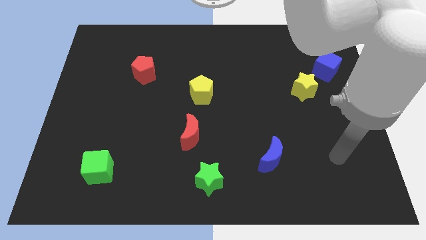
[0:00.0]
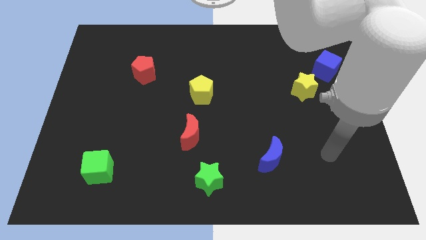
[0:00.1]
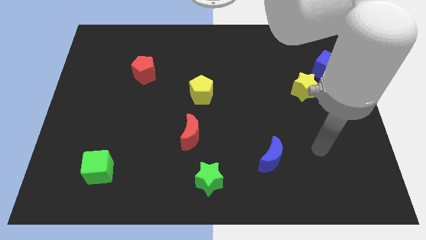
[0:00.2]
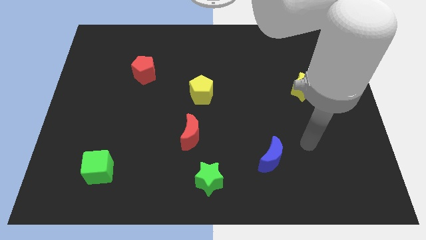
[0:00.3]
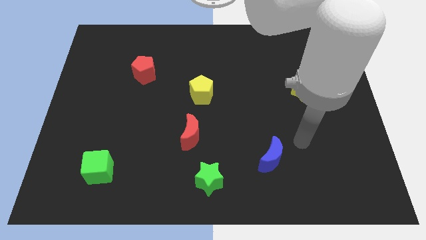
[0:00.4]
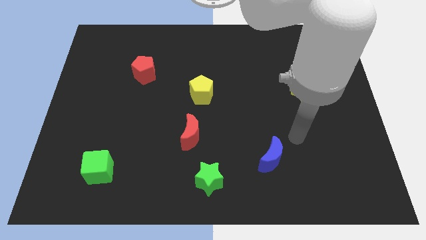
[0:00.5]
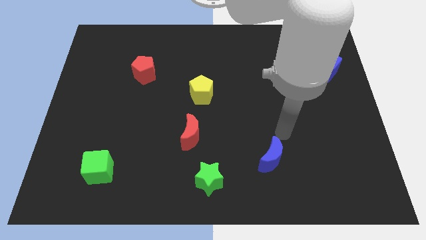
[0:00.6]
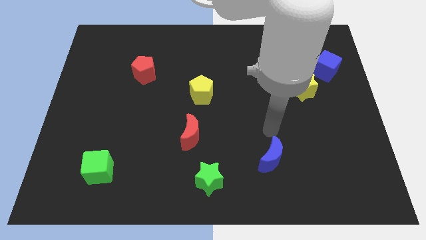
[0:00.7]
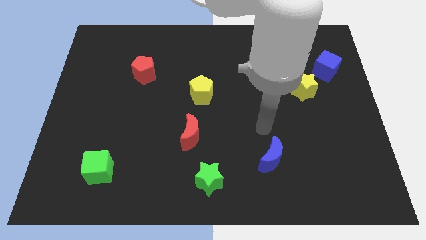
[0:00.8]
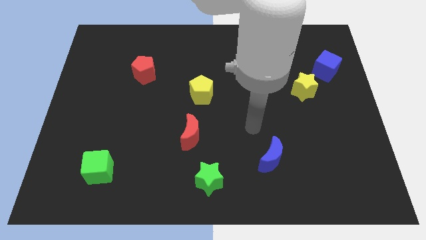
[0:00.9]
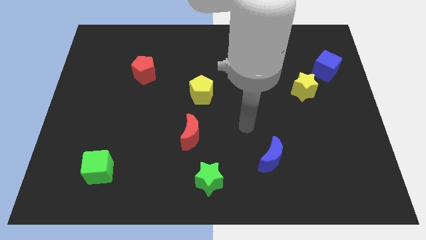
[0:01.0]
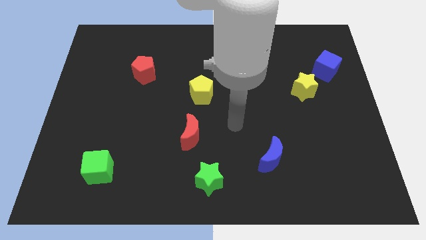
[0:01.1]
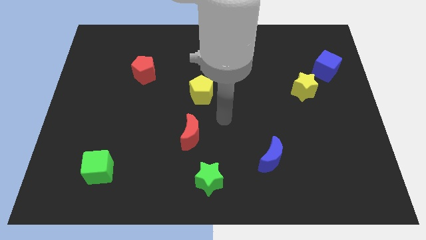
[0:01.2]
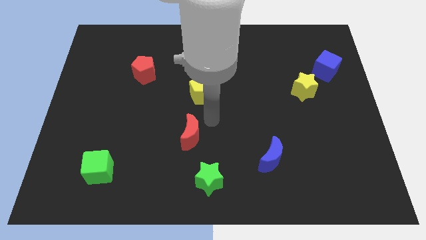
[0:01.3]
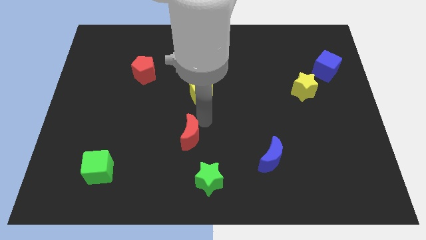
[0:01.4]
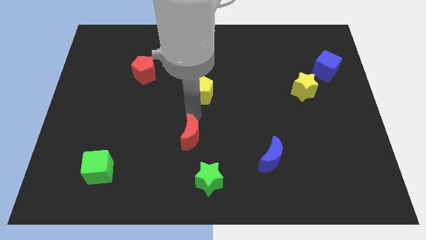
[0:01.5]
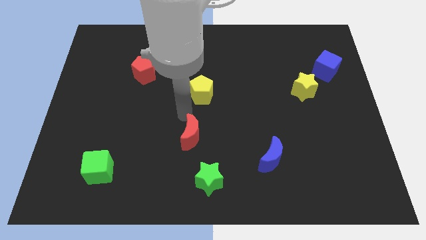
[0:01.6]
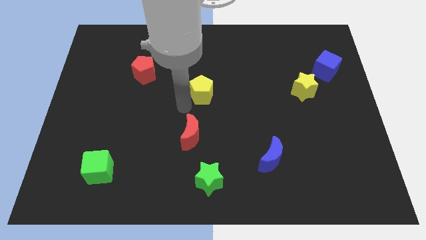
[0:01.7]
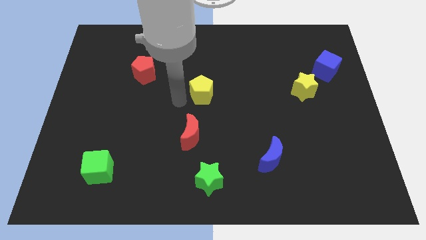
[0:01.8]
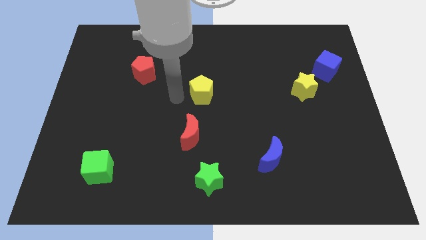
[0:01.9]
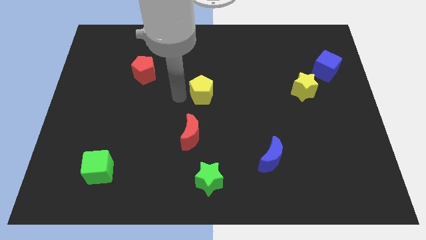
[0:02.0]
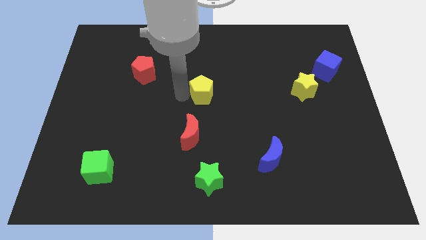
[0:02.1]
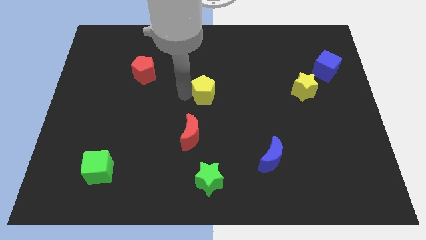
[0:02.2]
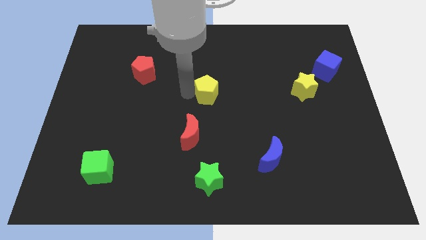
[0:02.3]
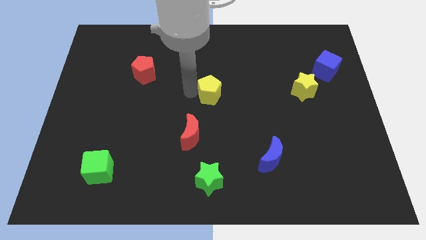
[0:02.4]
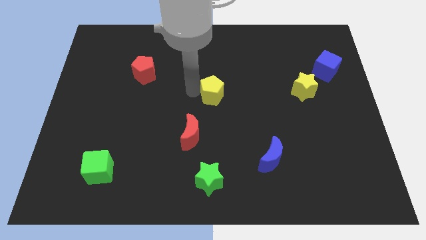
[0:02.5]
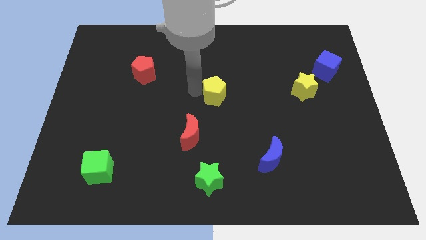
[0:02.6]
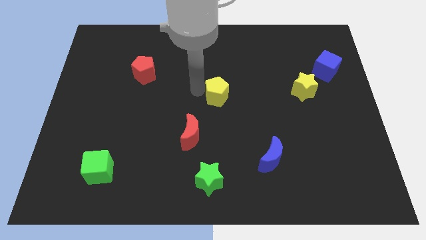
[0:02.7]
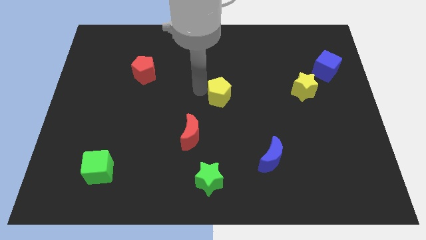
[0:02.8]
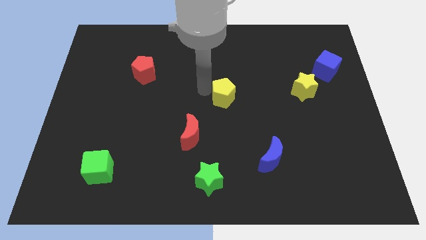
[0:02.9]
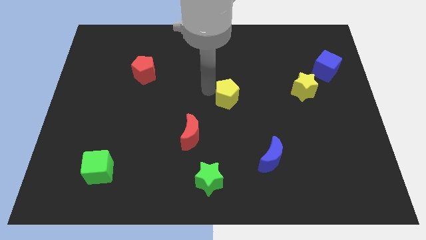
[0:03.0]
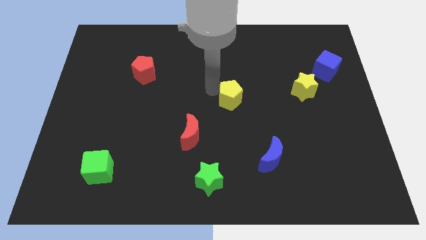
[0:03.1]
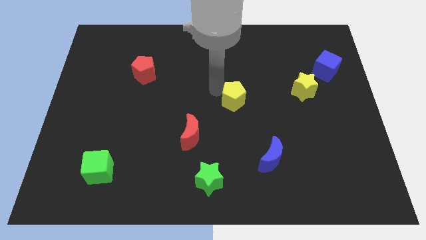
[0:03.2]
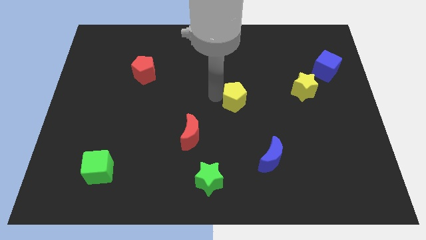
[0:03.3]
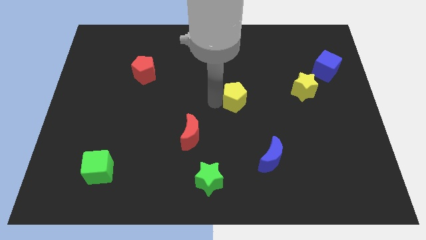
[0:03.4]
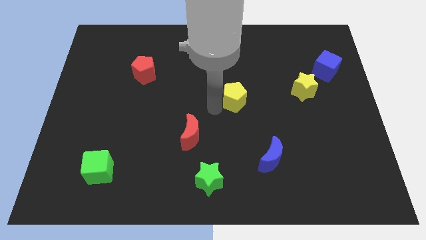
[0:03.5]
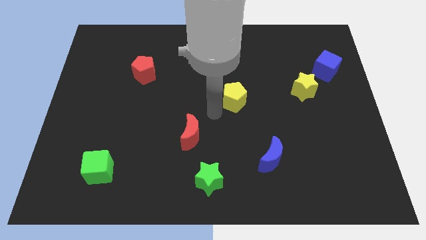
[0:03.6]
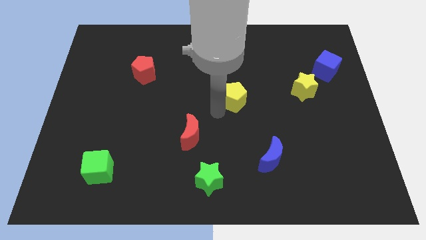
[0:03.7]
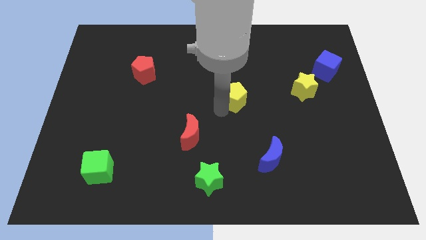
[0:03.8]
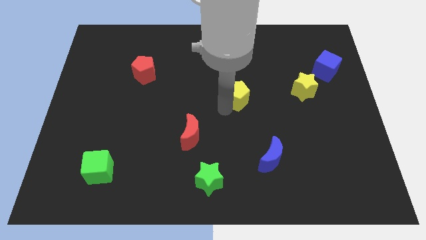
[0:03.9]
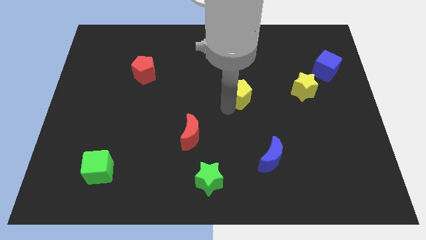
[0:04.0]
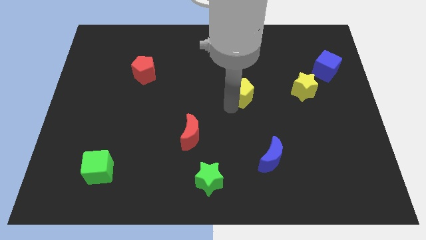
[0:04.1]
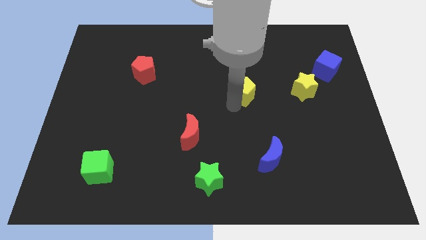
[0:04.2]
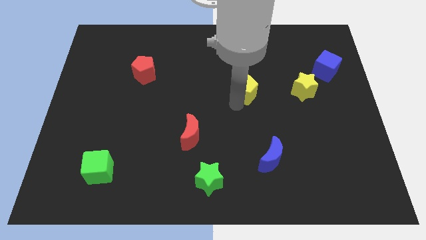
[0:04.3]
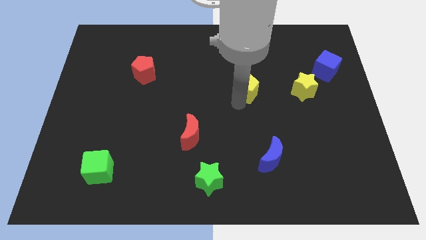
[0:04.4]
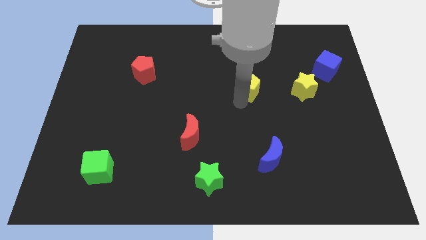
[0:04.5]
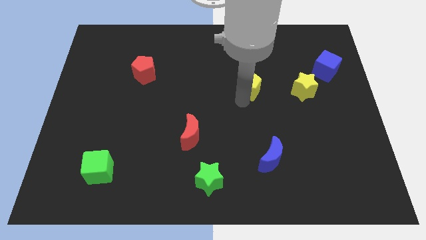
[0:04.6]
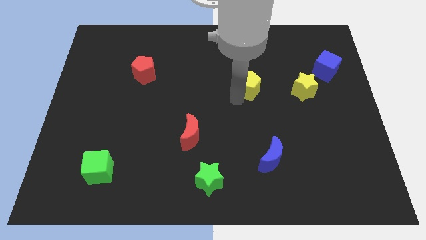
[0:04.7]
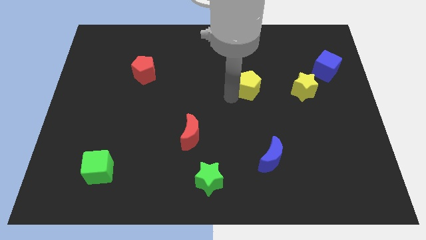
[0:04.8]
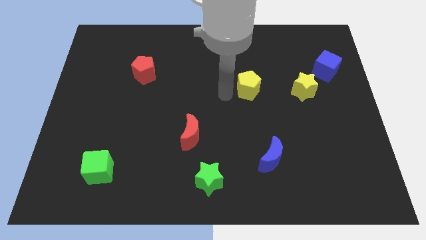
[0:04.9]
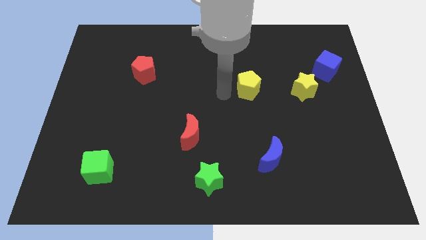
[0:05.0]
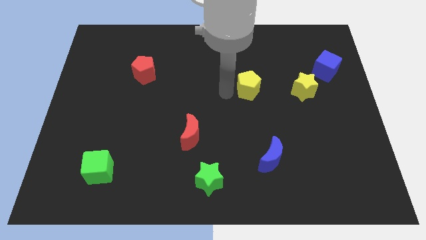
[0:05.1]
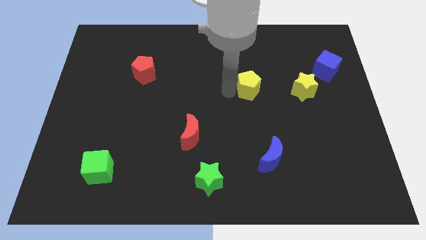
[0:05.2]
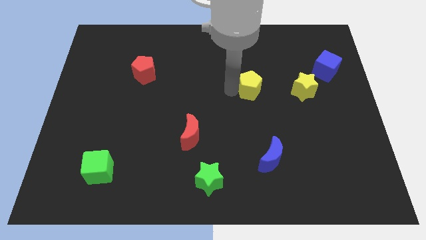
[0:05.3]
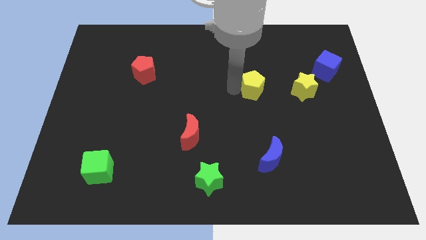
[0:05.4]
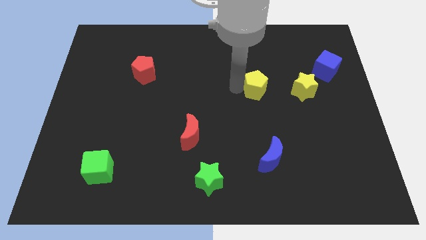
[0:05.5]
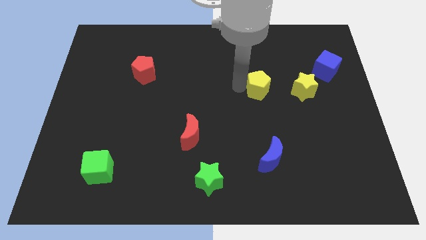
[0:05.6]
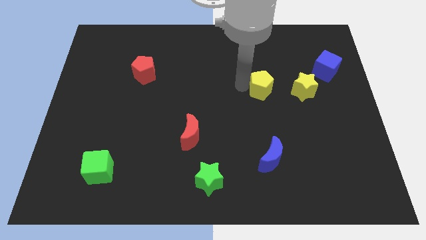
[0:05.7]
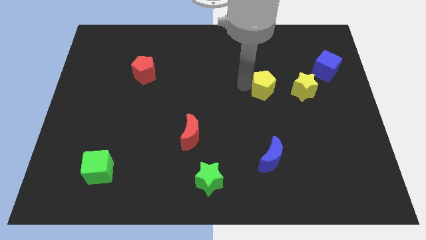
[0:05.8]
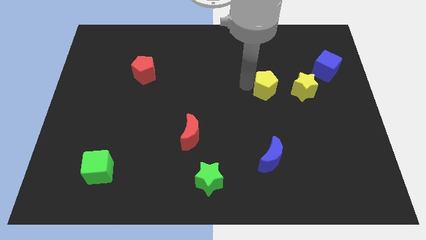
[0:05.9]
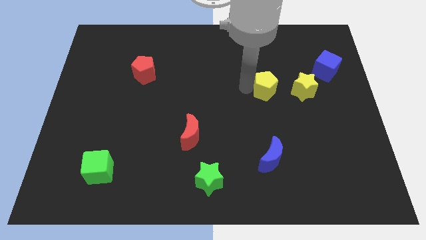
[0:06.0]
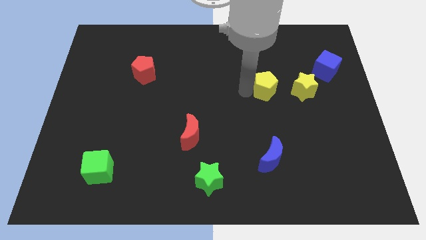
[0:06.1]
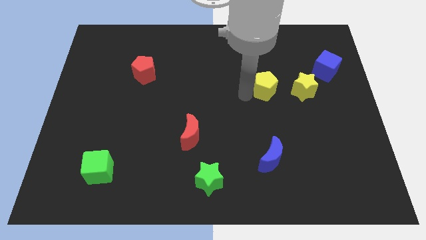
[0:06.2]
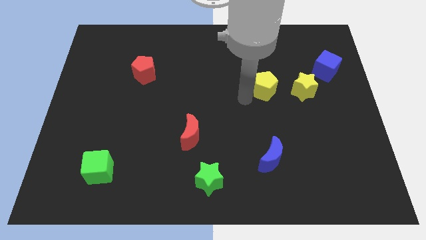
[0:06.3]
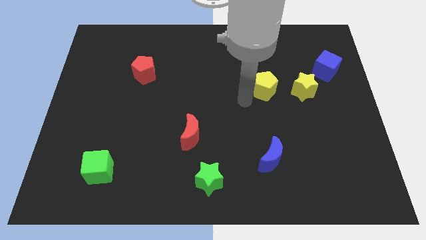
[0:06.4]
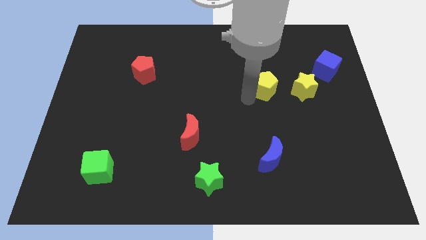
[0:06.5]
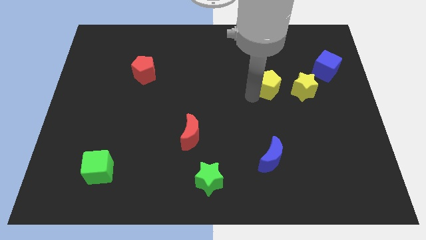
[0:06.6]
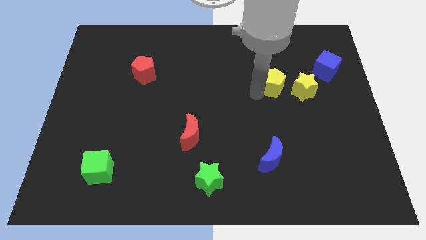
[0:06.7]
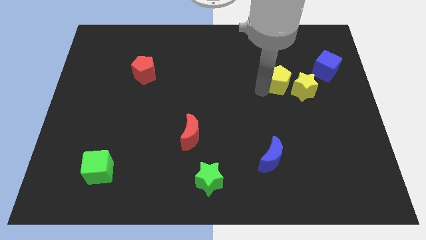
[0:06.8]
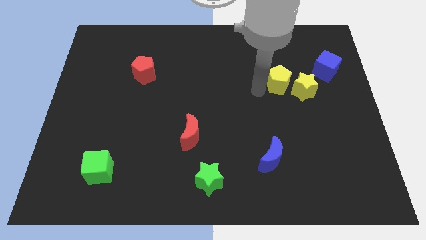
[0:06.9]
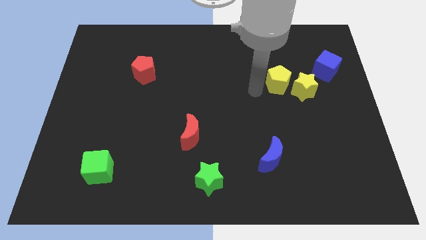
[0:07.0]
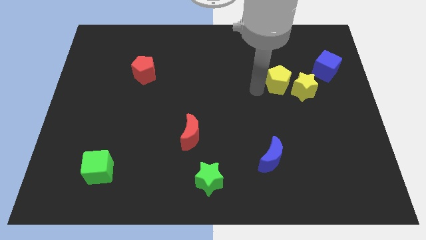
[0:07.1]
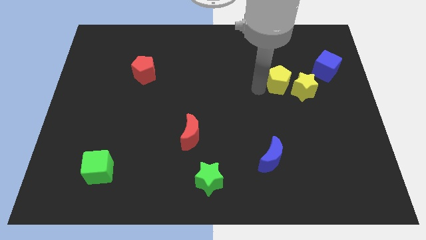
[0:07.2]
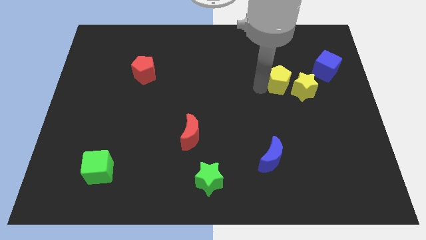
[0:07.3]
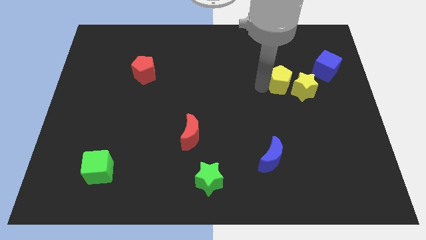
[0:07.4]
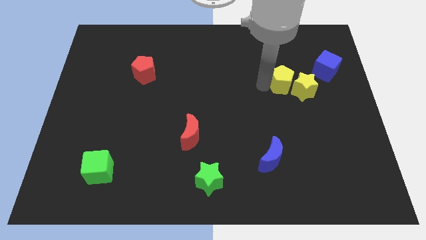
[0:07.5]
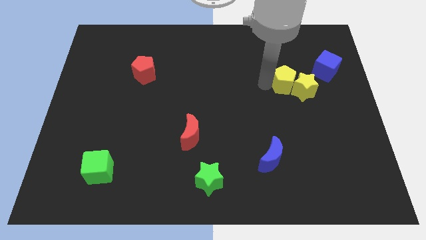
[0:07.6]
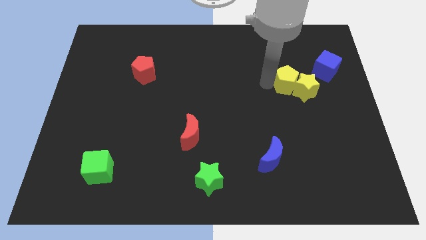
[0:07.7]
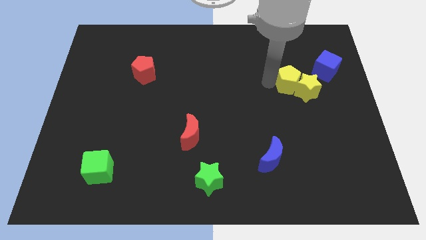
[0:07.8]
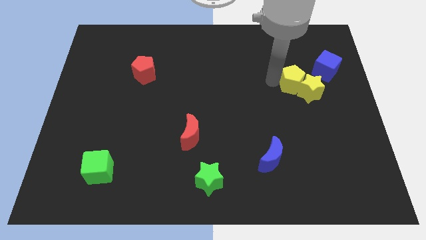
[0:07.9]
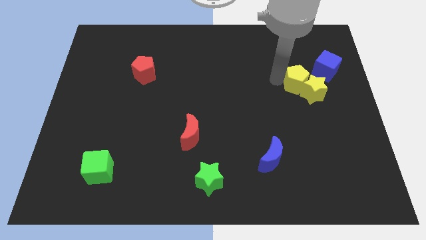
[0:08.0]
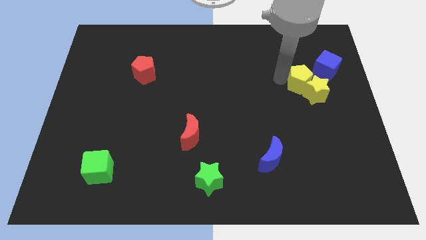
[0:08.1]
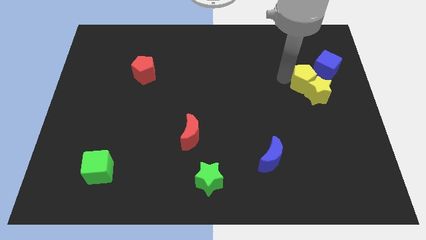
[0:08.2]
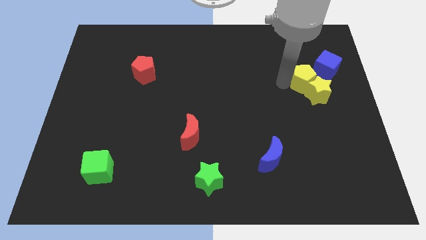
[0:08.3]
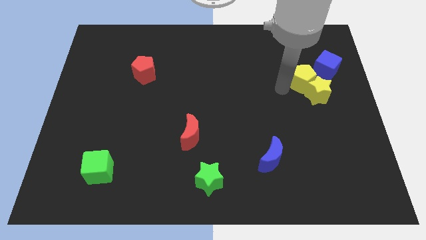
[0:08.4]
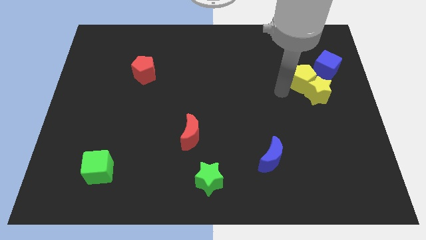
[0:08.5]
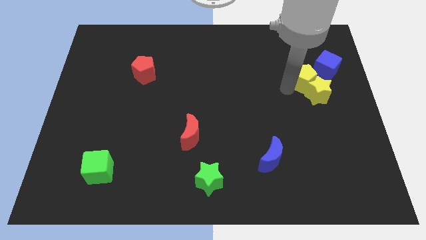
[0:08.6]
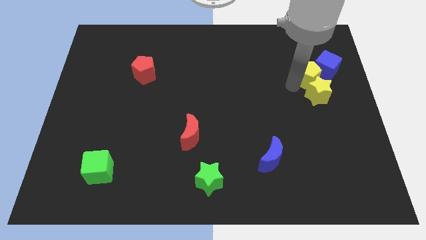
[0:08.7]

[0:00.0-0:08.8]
push the yellow pentagon towards the blue cube
